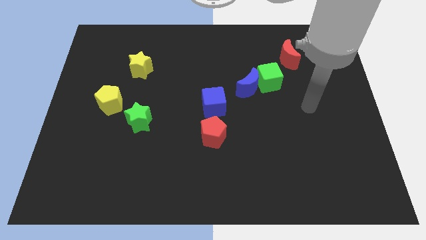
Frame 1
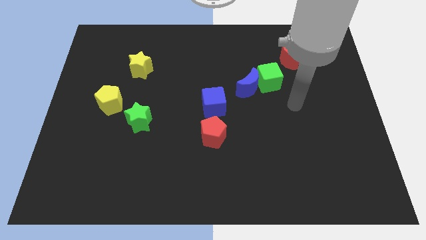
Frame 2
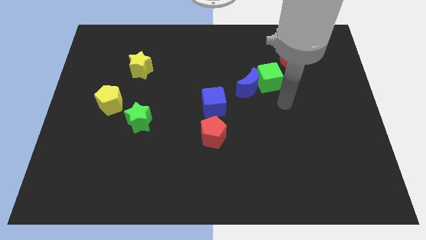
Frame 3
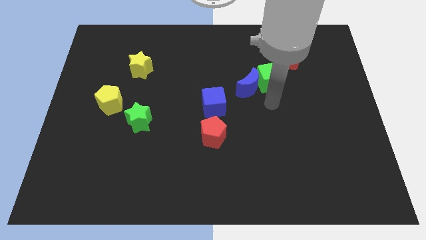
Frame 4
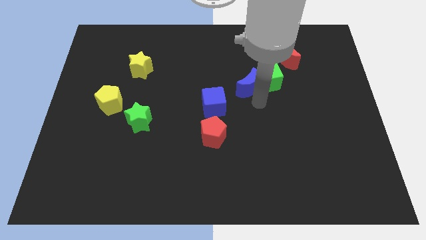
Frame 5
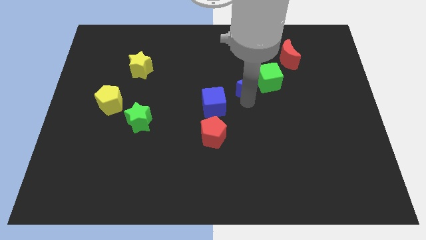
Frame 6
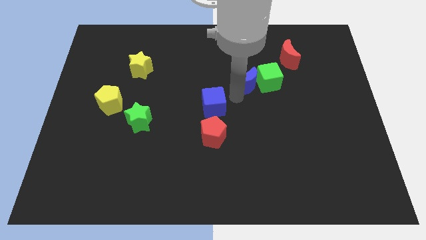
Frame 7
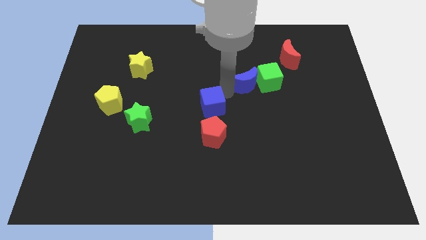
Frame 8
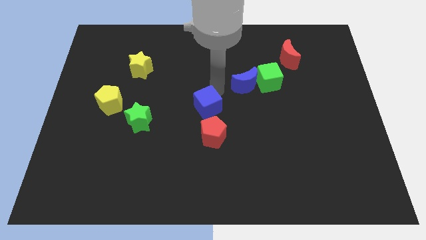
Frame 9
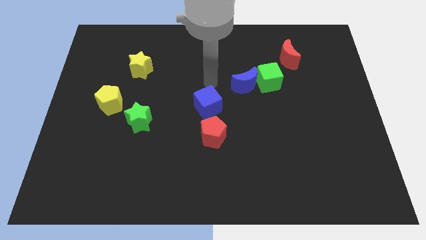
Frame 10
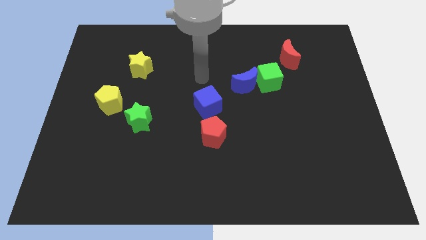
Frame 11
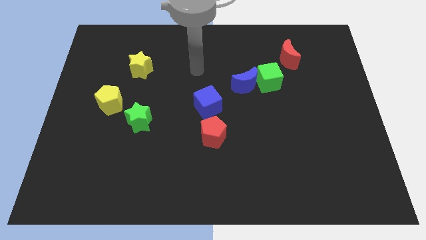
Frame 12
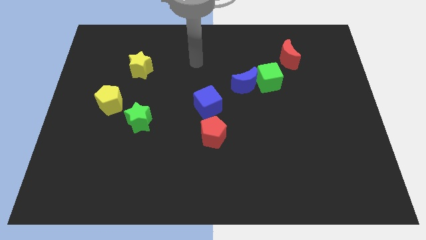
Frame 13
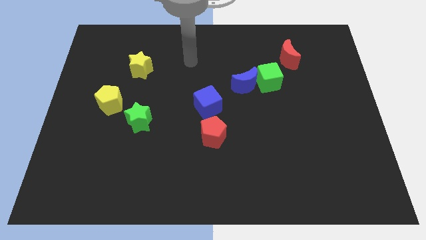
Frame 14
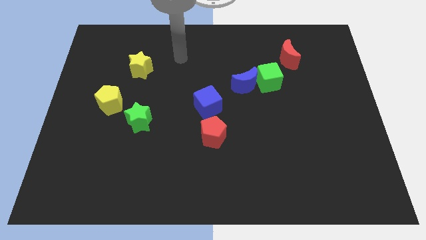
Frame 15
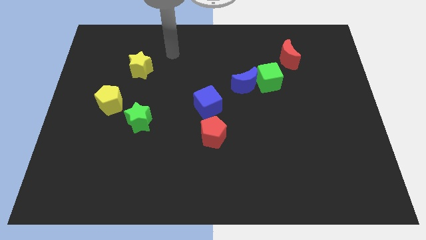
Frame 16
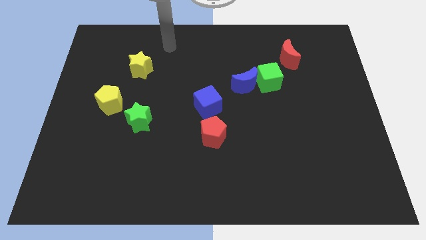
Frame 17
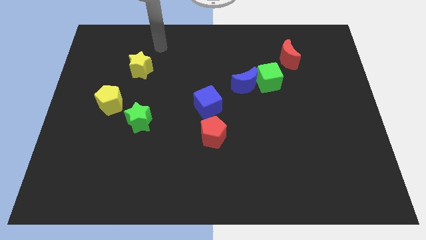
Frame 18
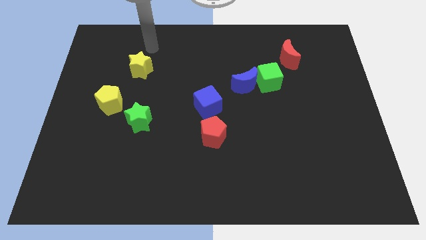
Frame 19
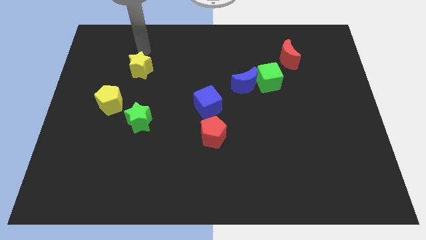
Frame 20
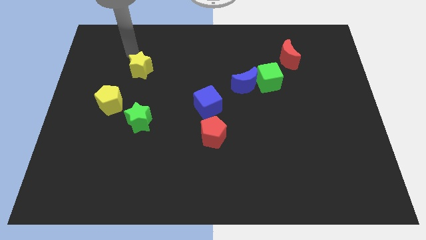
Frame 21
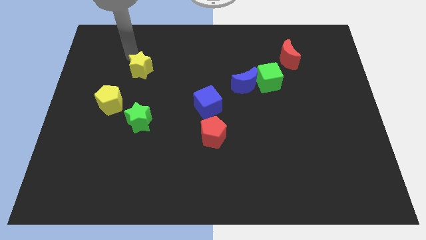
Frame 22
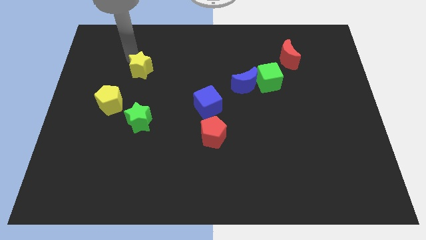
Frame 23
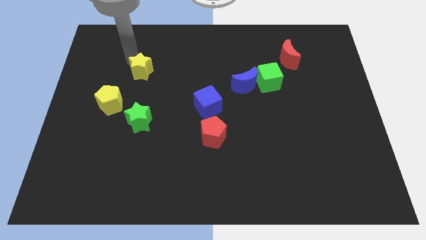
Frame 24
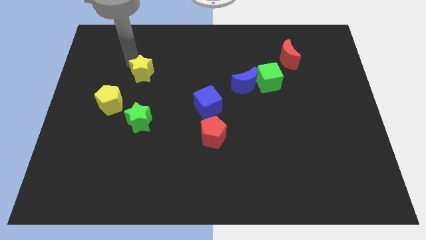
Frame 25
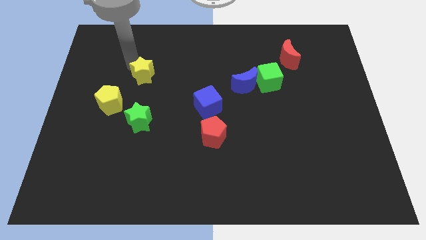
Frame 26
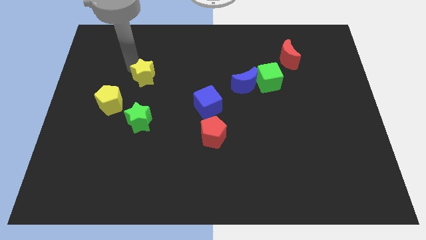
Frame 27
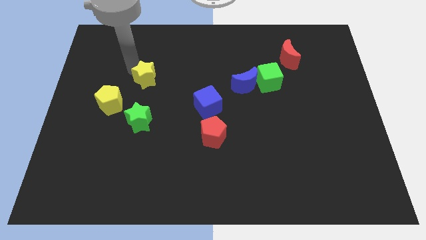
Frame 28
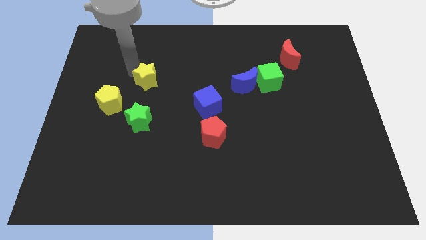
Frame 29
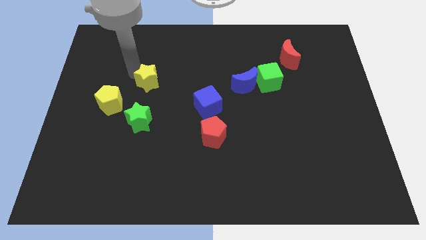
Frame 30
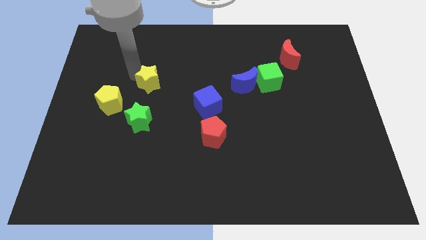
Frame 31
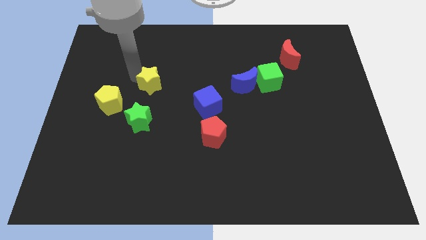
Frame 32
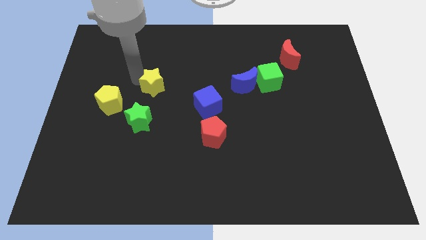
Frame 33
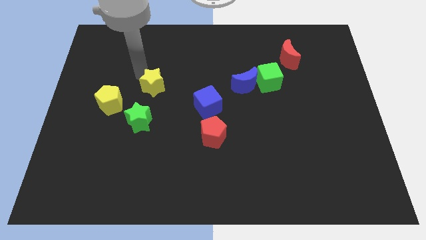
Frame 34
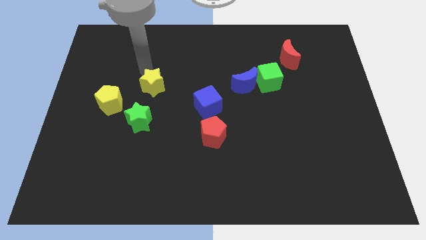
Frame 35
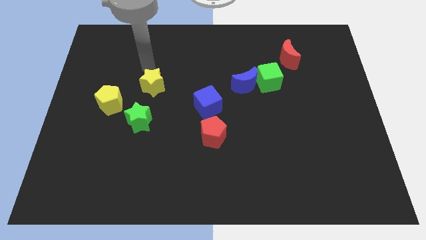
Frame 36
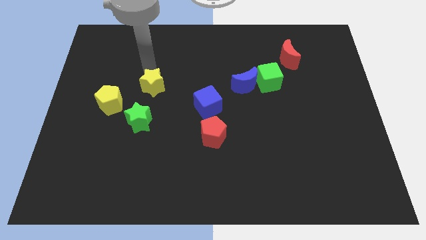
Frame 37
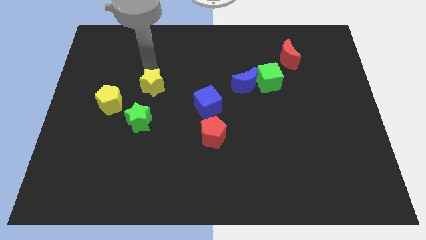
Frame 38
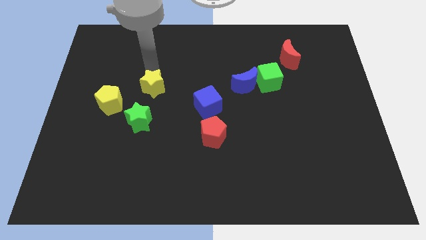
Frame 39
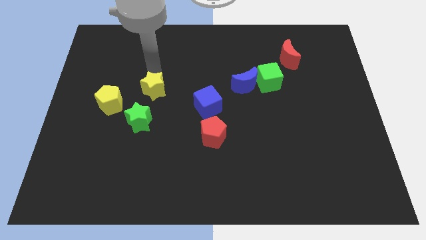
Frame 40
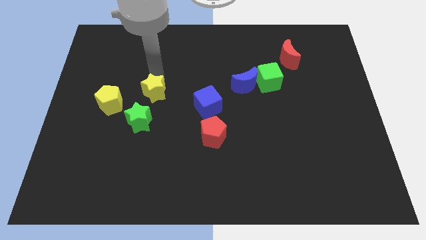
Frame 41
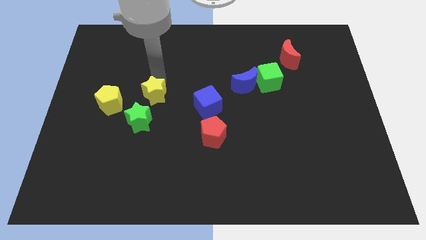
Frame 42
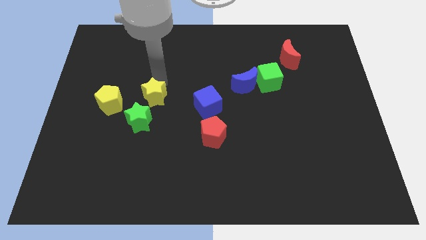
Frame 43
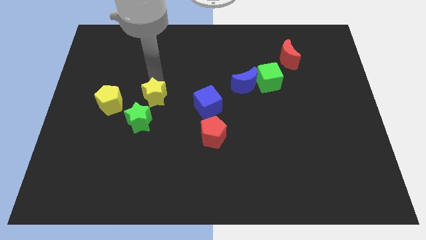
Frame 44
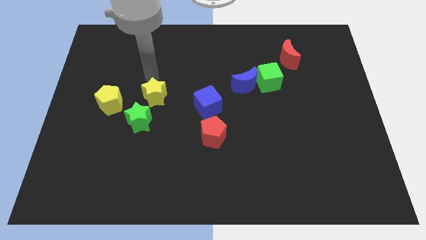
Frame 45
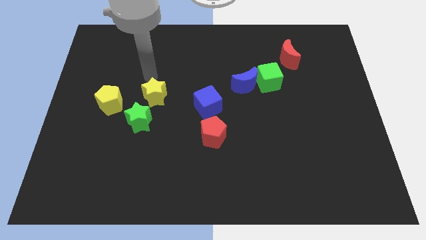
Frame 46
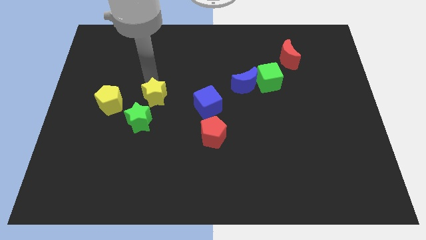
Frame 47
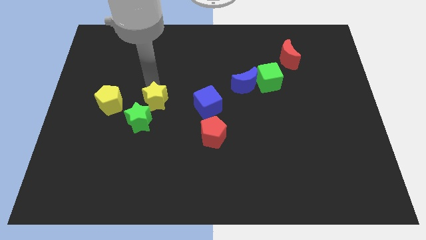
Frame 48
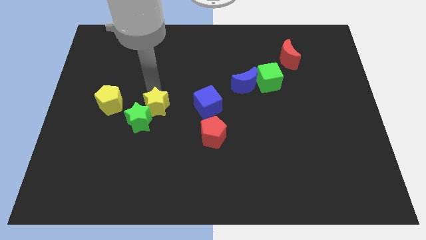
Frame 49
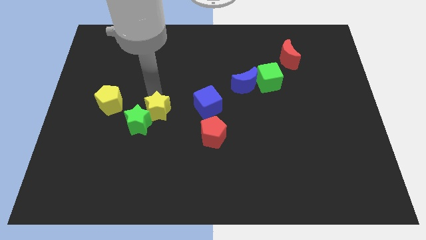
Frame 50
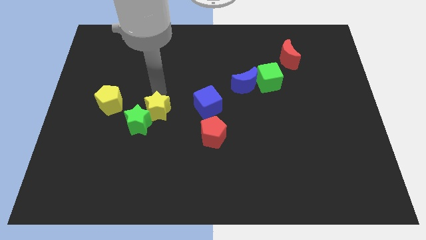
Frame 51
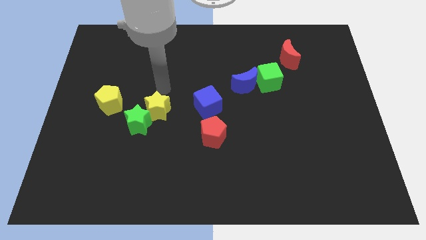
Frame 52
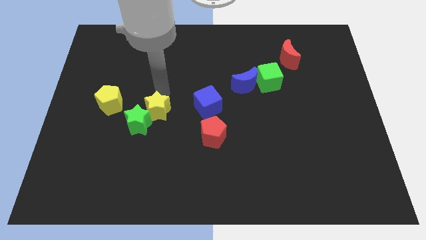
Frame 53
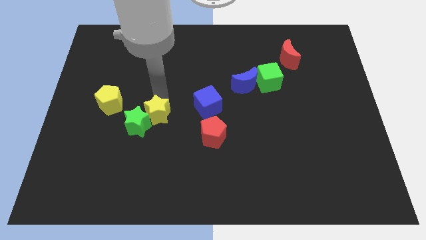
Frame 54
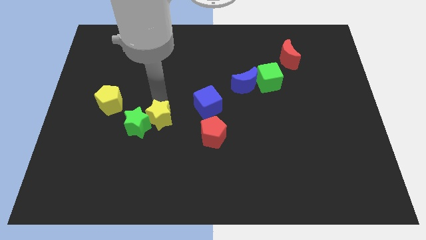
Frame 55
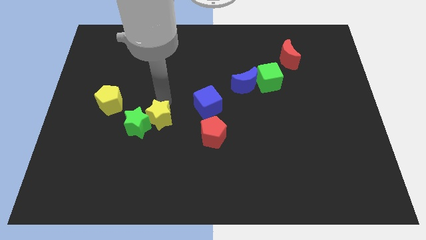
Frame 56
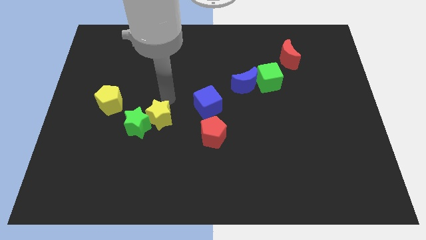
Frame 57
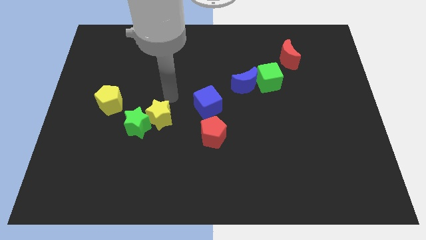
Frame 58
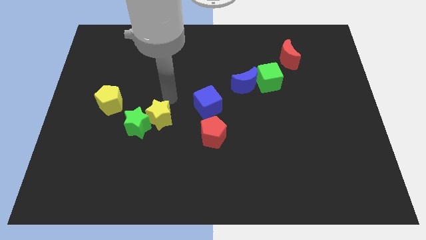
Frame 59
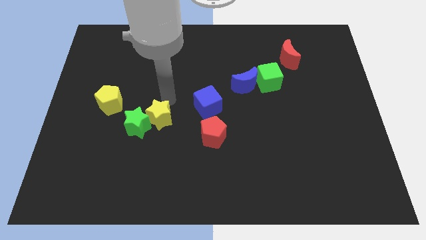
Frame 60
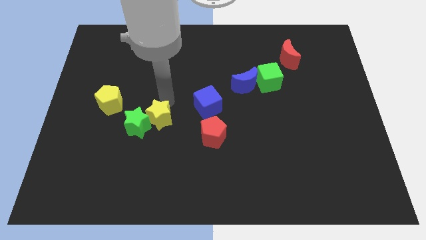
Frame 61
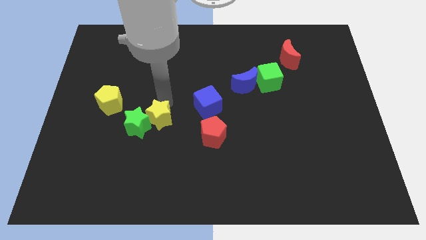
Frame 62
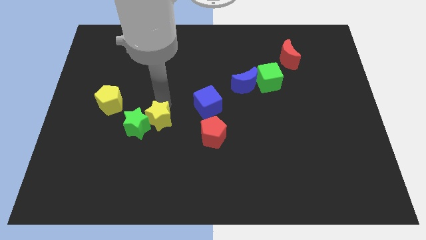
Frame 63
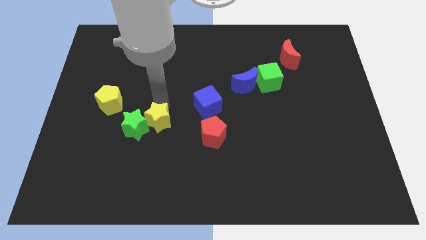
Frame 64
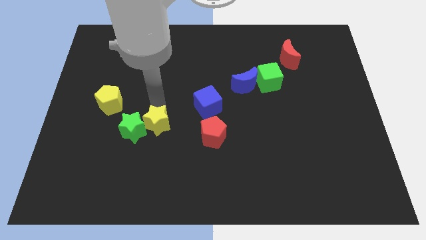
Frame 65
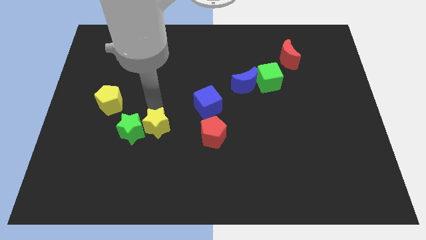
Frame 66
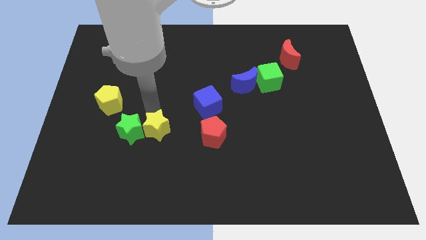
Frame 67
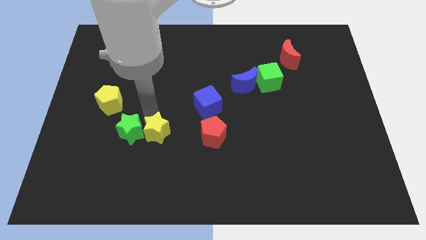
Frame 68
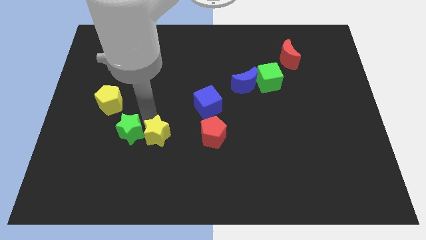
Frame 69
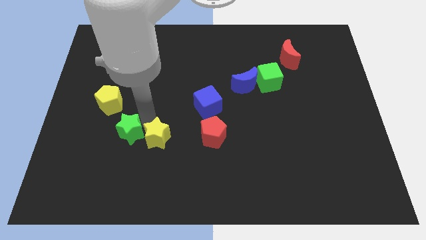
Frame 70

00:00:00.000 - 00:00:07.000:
push the yellow star down

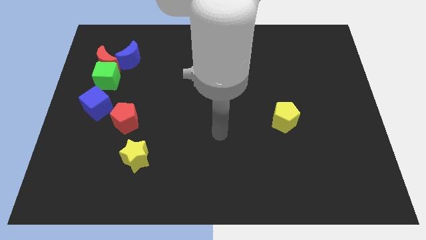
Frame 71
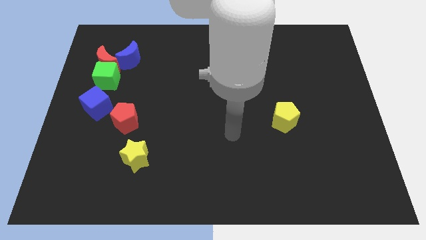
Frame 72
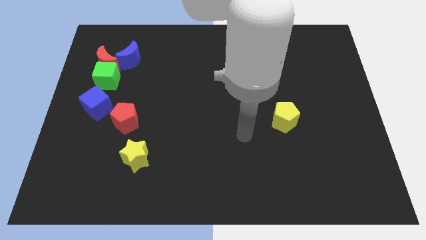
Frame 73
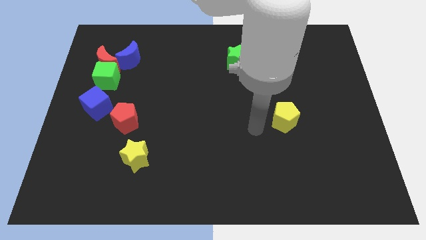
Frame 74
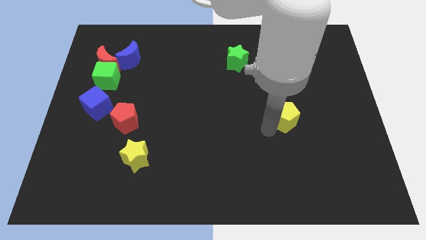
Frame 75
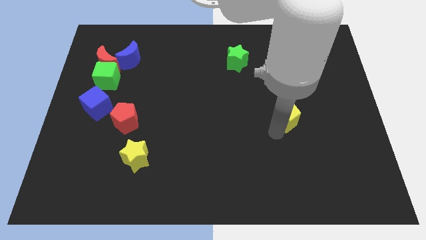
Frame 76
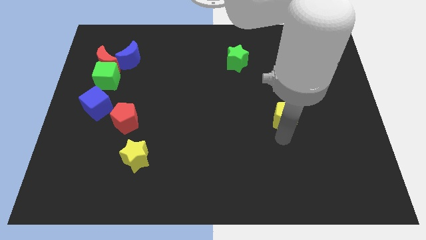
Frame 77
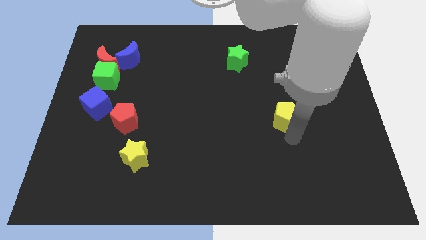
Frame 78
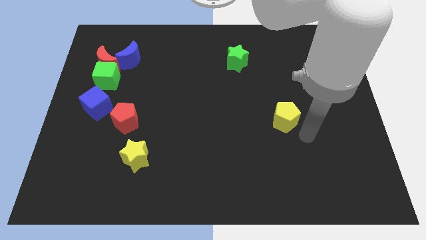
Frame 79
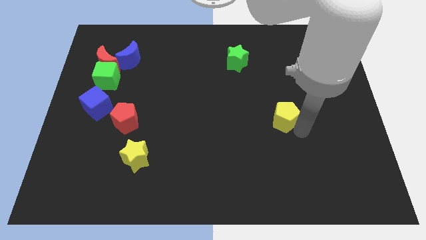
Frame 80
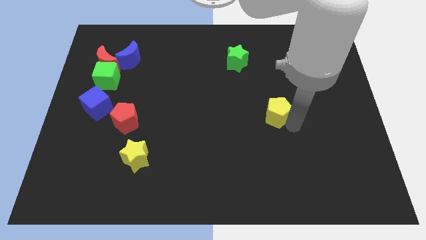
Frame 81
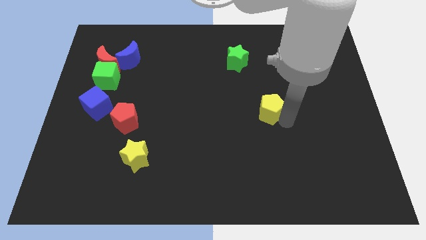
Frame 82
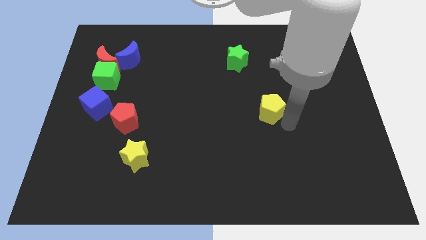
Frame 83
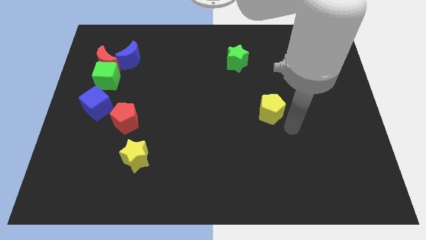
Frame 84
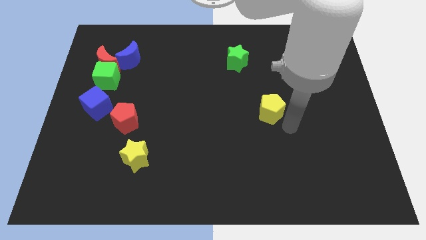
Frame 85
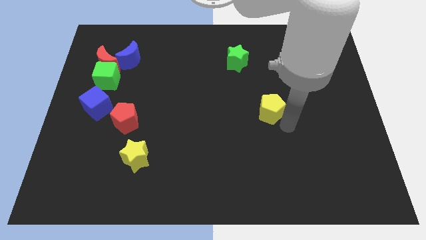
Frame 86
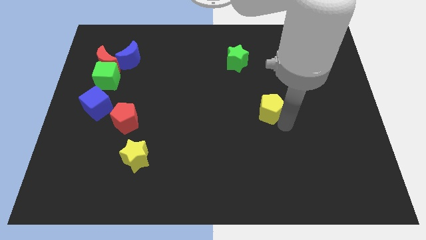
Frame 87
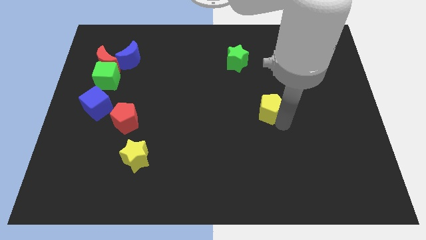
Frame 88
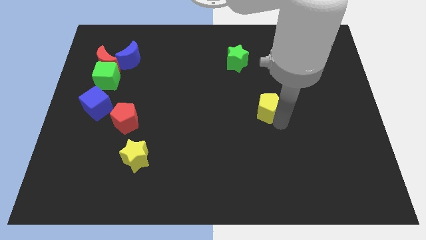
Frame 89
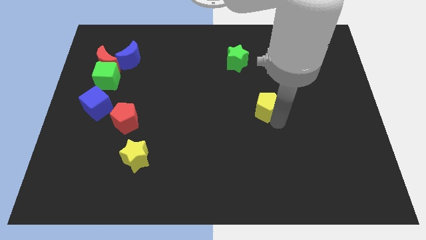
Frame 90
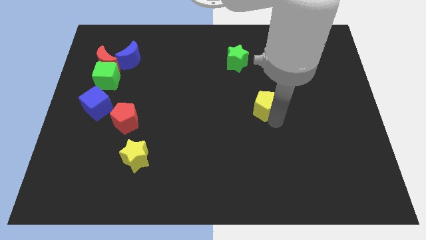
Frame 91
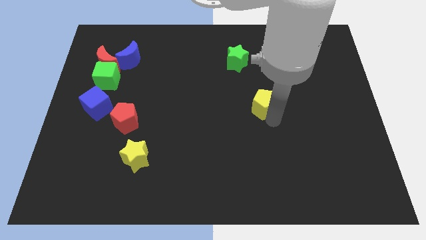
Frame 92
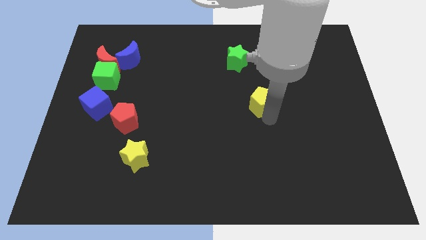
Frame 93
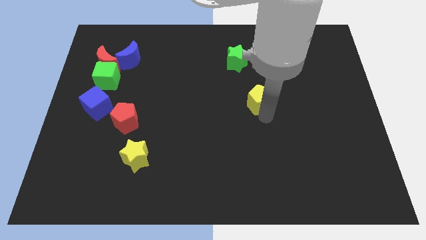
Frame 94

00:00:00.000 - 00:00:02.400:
push the yellow pentagon a bit diagonally up and left
